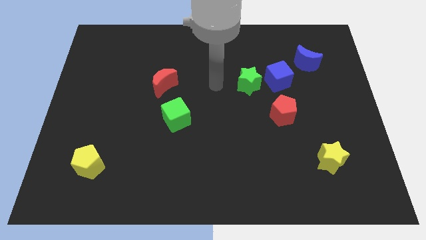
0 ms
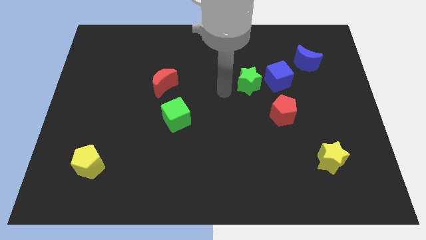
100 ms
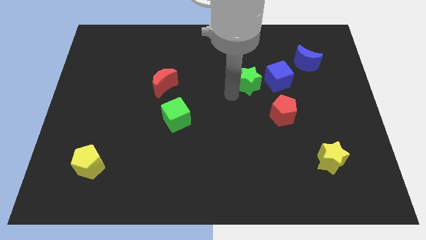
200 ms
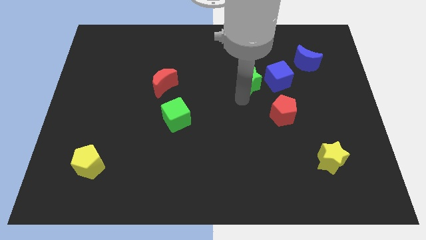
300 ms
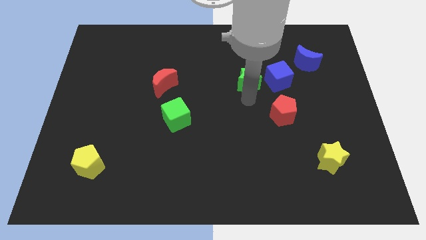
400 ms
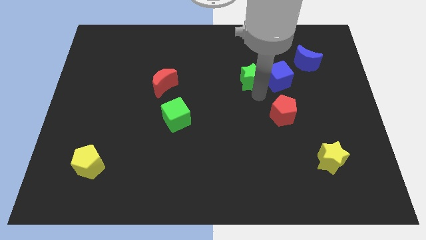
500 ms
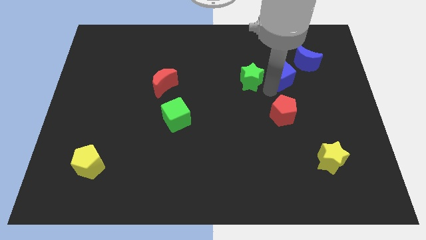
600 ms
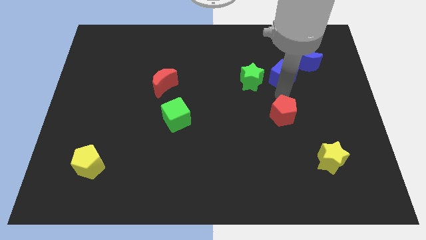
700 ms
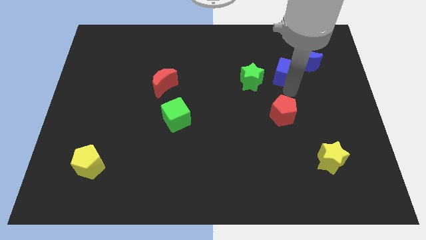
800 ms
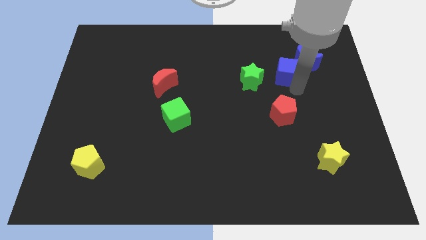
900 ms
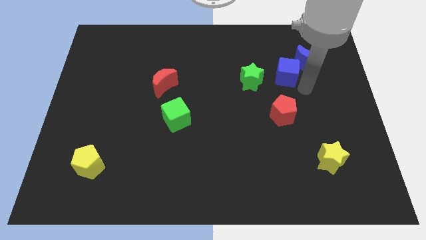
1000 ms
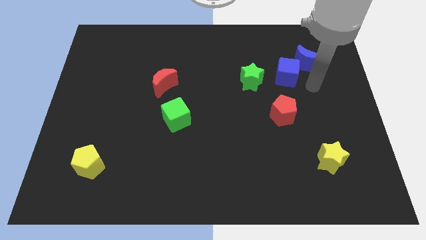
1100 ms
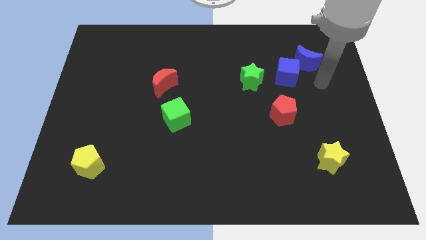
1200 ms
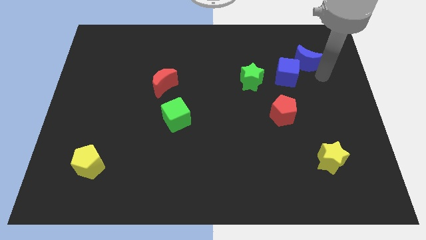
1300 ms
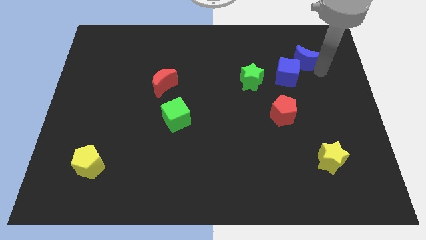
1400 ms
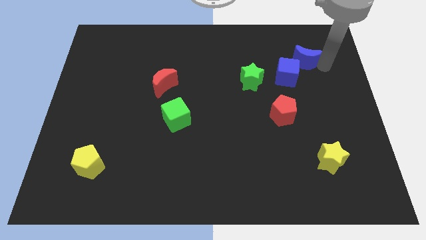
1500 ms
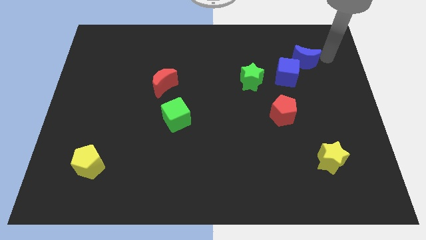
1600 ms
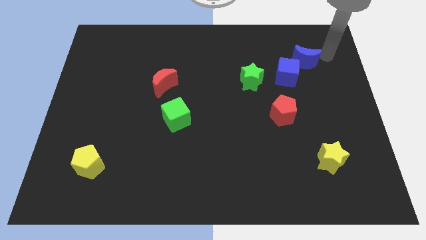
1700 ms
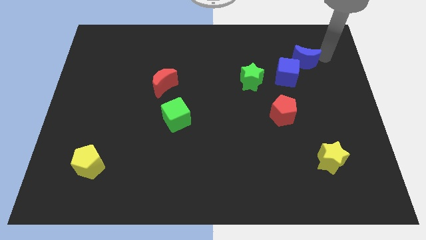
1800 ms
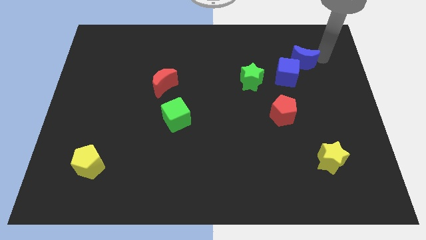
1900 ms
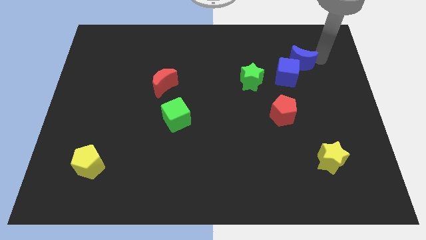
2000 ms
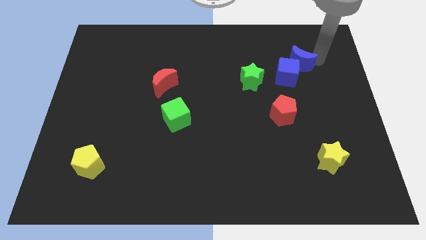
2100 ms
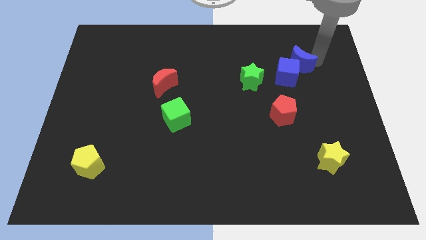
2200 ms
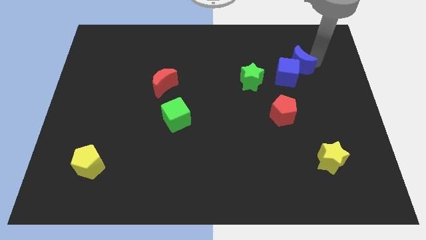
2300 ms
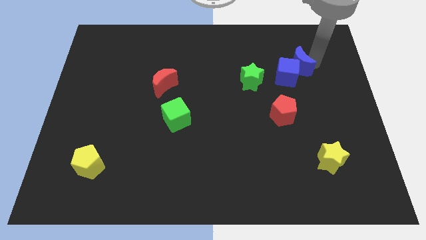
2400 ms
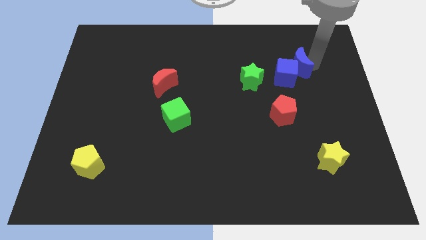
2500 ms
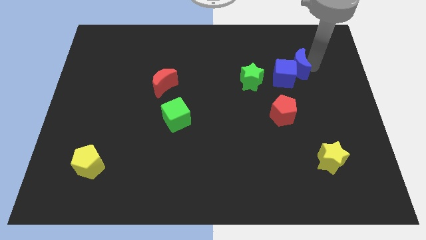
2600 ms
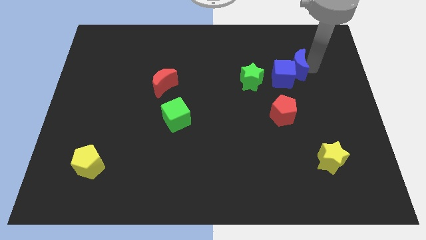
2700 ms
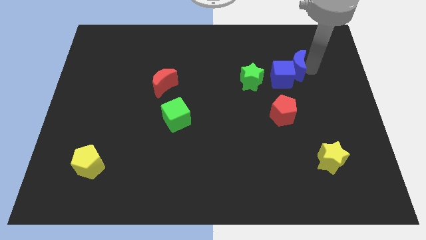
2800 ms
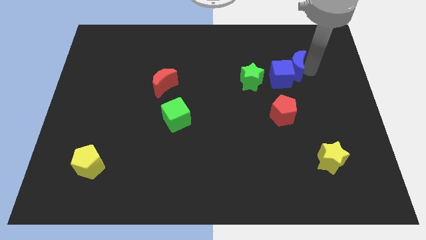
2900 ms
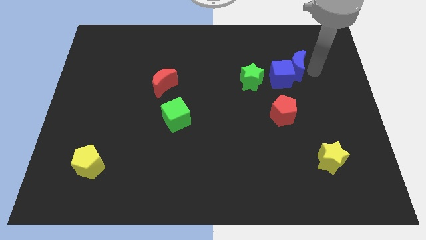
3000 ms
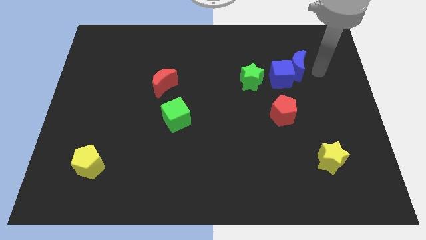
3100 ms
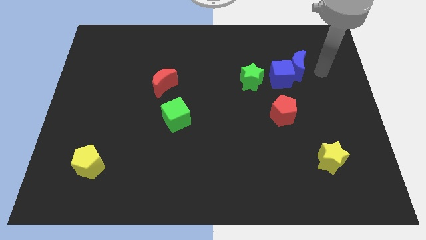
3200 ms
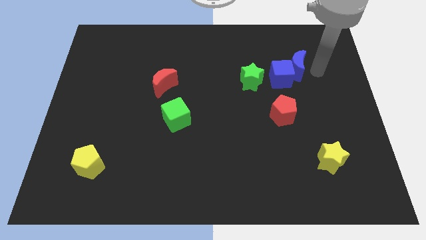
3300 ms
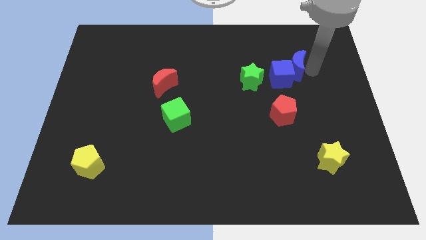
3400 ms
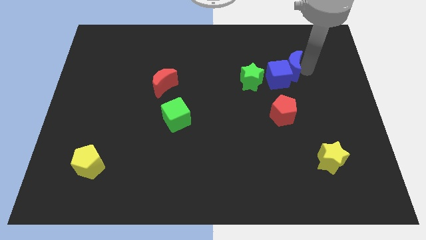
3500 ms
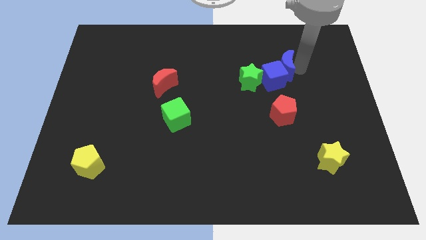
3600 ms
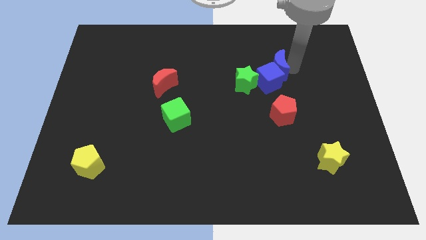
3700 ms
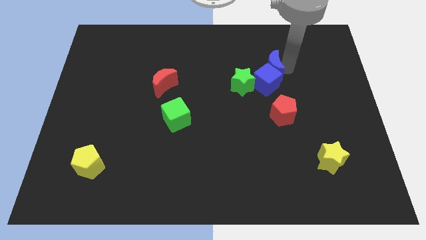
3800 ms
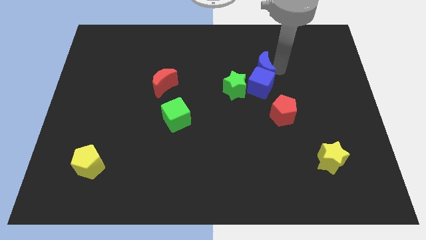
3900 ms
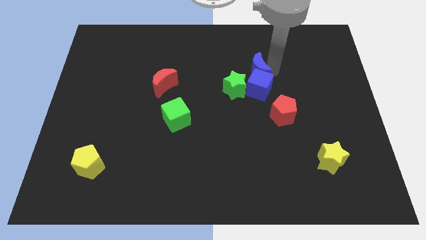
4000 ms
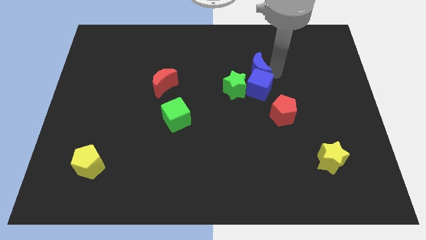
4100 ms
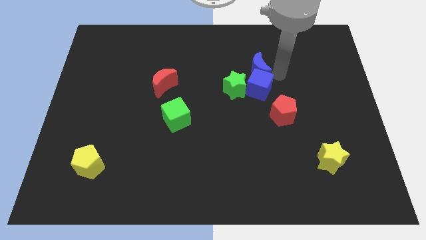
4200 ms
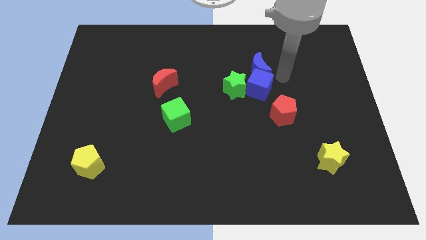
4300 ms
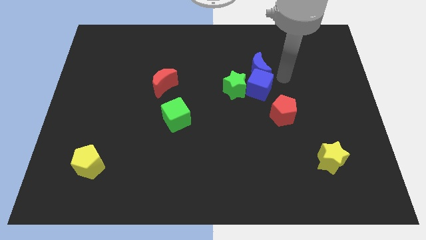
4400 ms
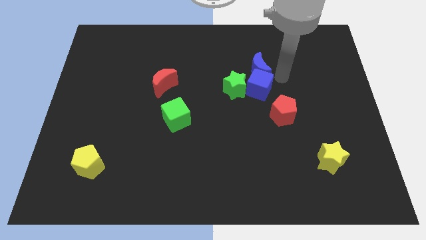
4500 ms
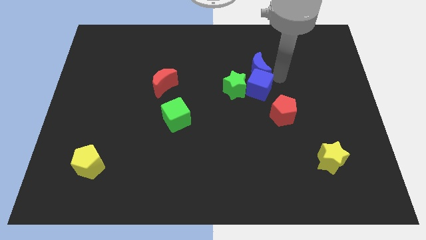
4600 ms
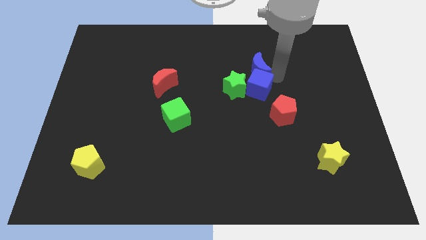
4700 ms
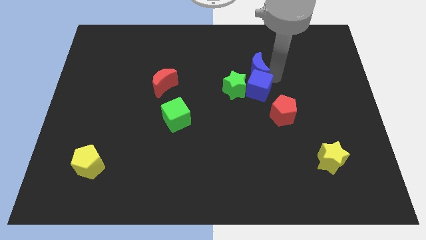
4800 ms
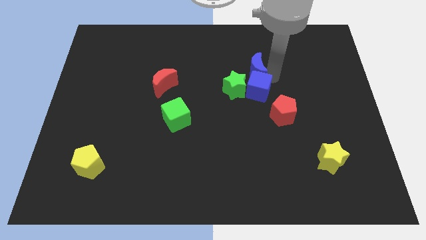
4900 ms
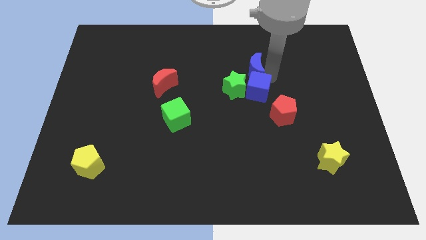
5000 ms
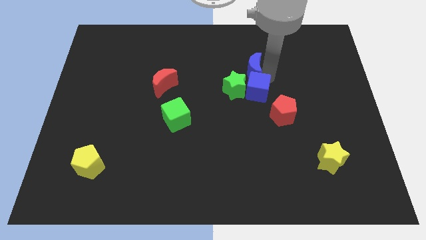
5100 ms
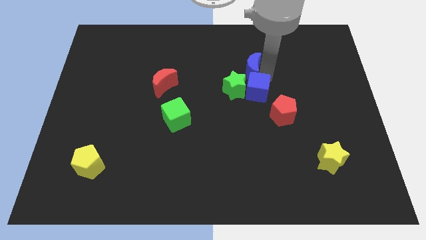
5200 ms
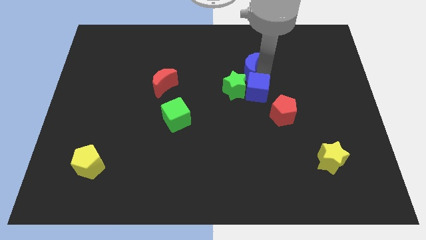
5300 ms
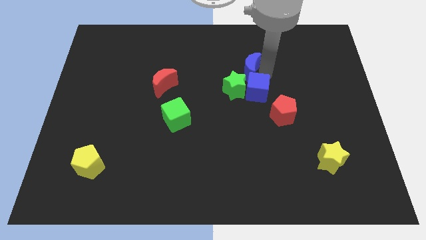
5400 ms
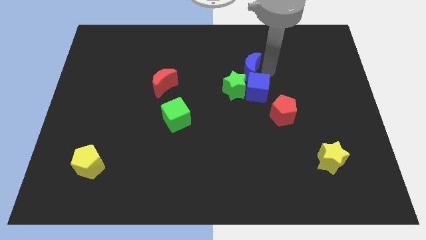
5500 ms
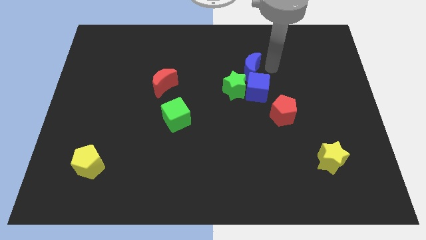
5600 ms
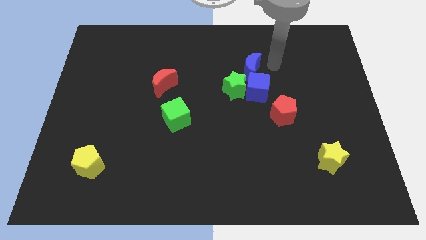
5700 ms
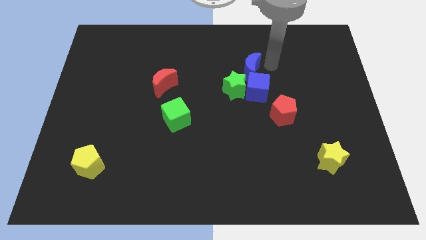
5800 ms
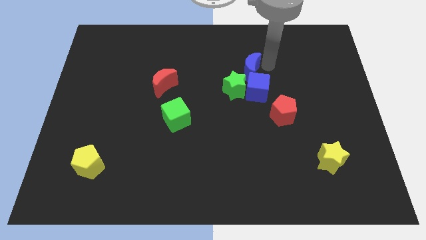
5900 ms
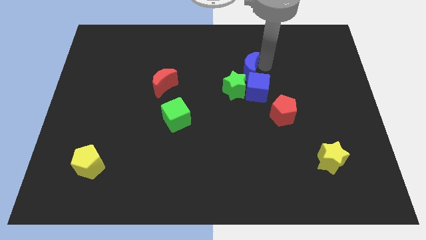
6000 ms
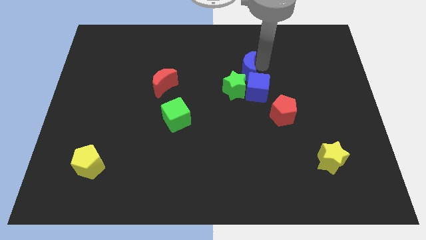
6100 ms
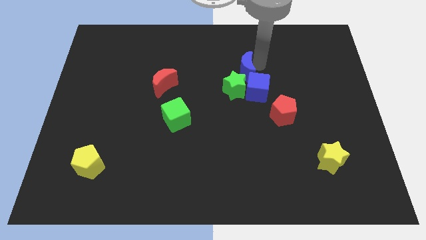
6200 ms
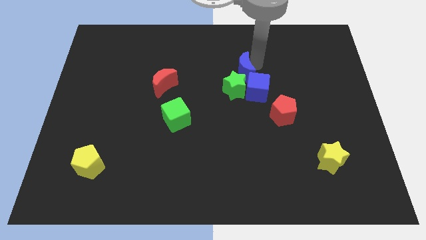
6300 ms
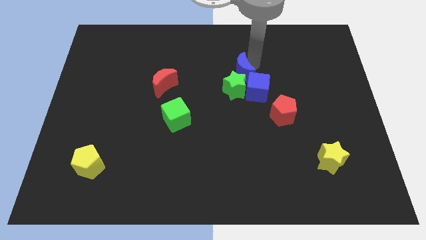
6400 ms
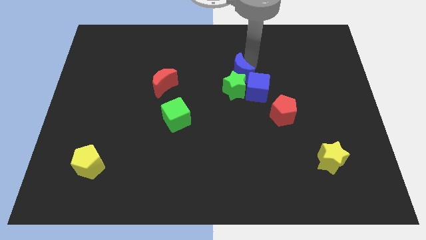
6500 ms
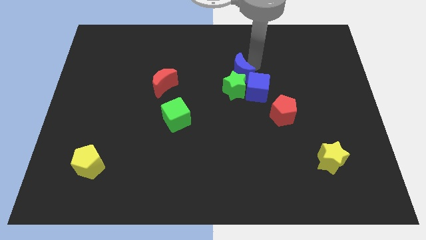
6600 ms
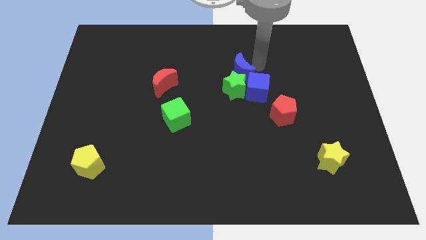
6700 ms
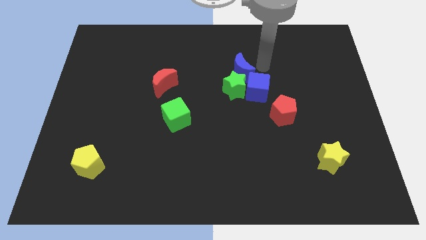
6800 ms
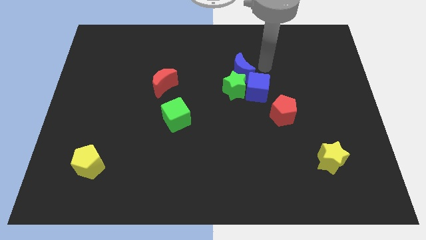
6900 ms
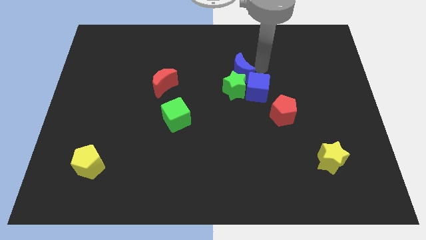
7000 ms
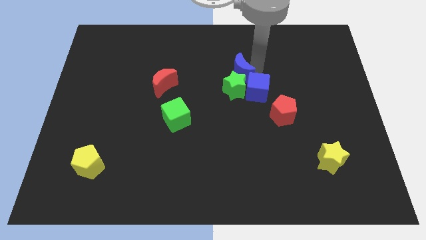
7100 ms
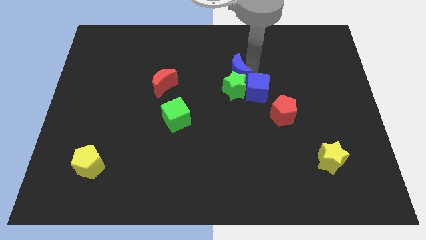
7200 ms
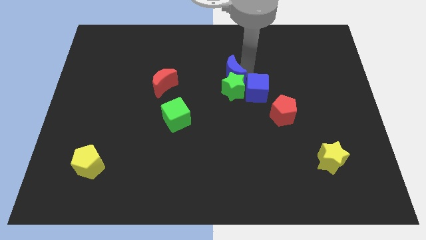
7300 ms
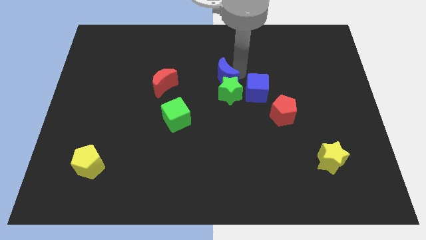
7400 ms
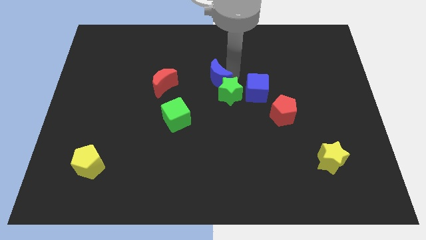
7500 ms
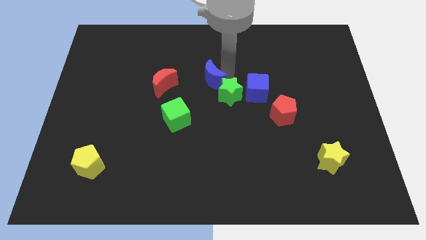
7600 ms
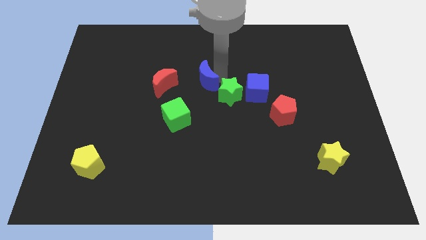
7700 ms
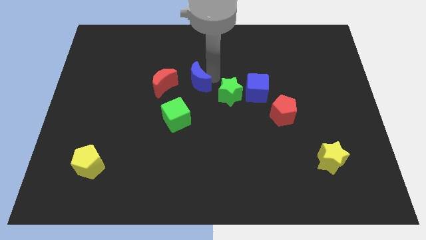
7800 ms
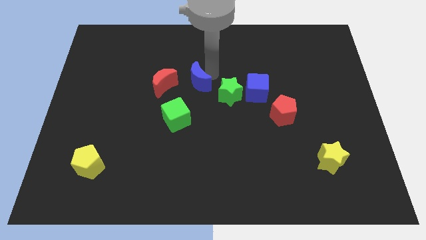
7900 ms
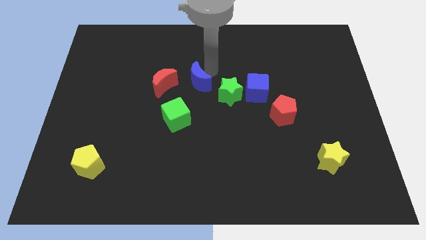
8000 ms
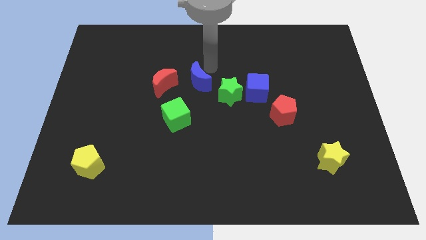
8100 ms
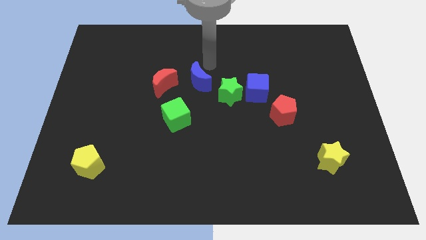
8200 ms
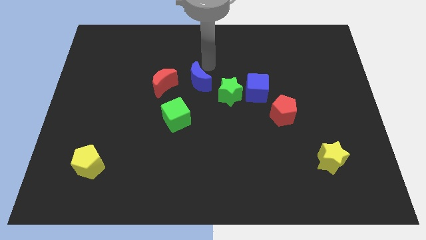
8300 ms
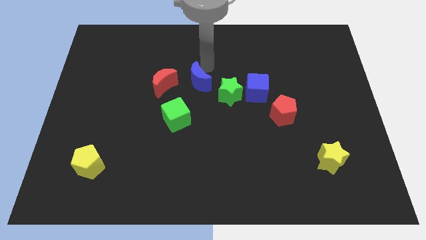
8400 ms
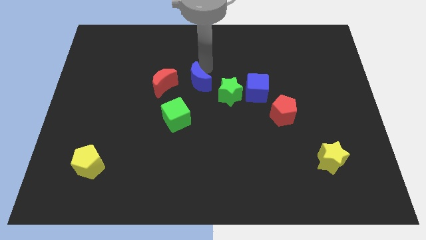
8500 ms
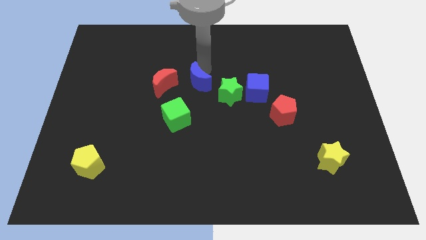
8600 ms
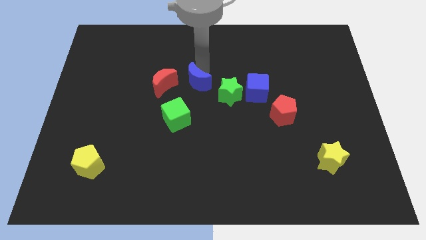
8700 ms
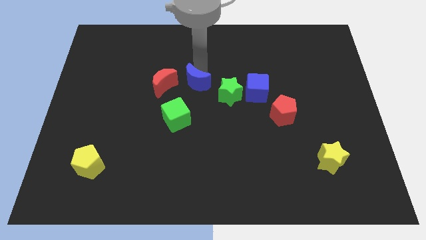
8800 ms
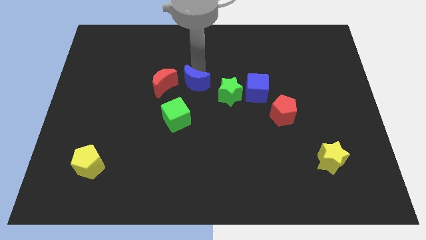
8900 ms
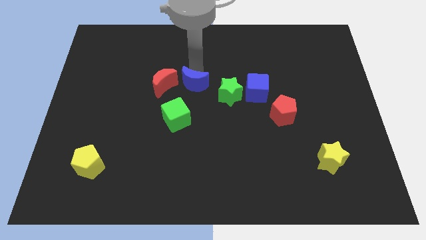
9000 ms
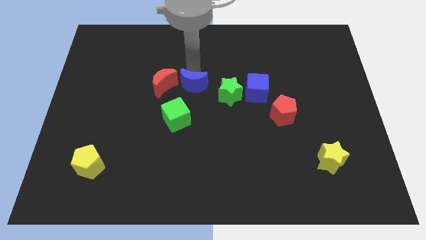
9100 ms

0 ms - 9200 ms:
put the blue moon diagonally down and to the right of the red moon
